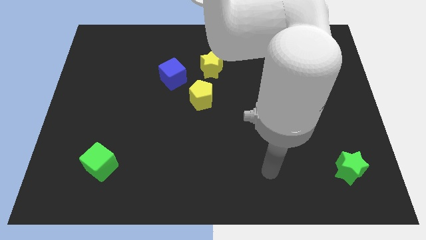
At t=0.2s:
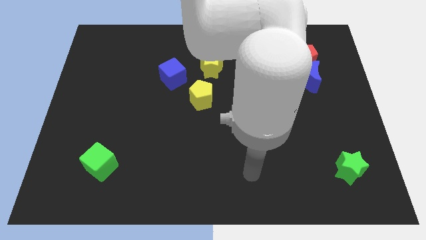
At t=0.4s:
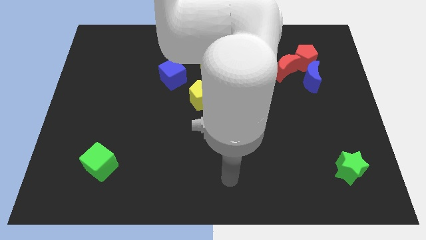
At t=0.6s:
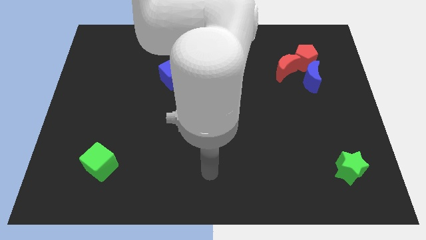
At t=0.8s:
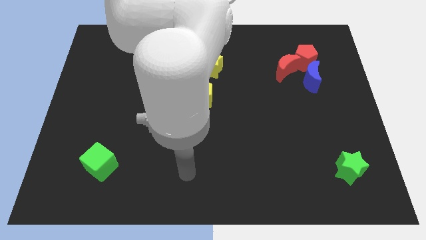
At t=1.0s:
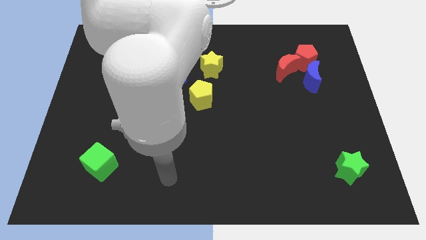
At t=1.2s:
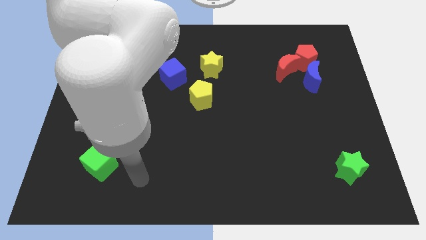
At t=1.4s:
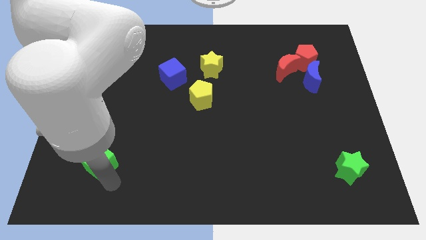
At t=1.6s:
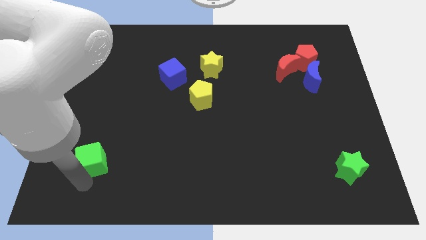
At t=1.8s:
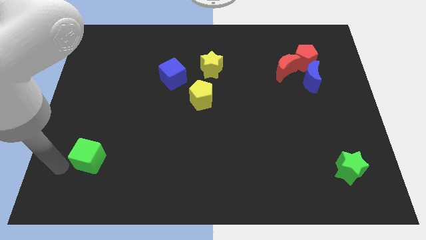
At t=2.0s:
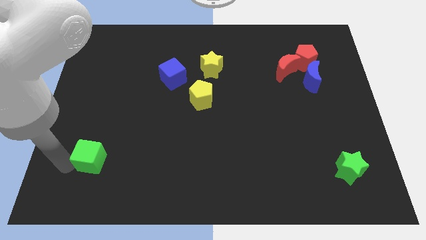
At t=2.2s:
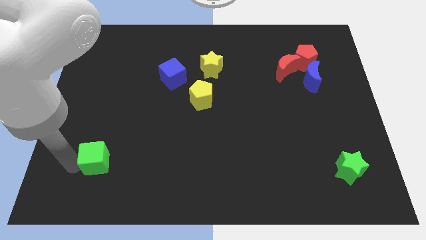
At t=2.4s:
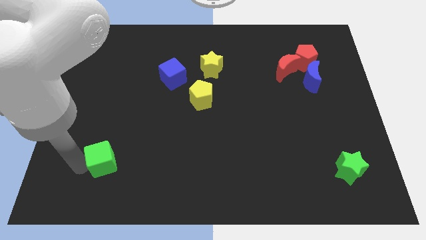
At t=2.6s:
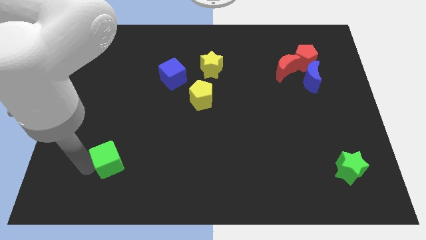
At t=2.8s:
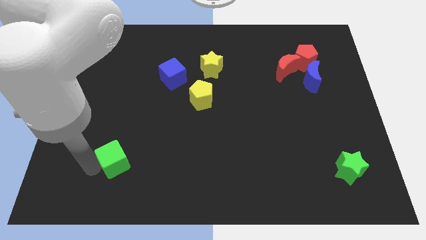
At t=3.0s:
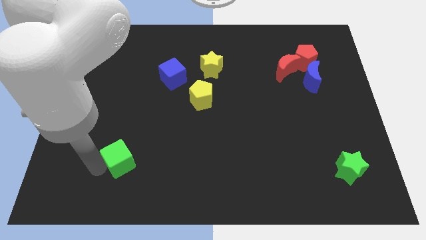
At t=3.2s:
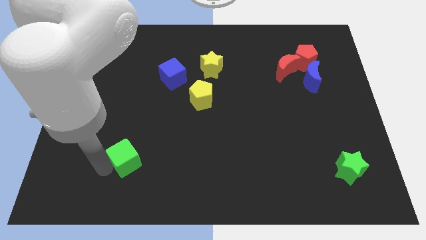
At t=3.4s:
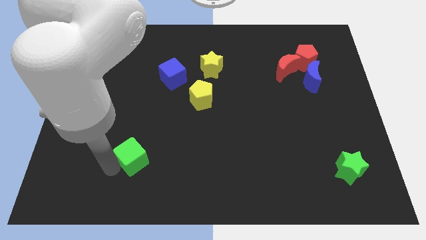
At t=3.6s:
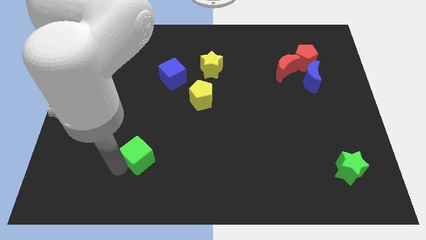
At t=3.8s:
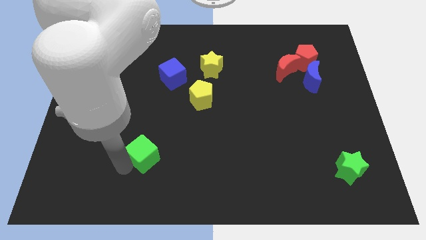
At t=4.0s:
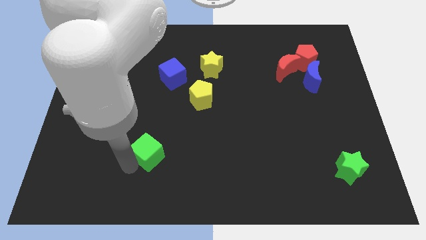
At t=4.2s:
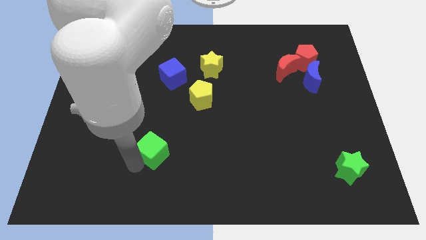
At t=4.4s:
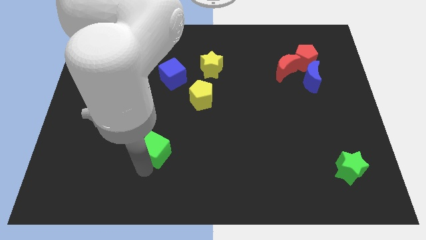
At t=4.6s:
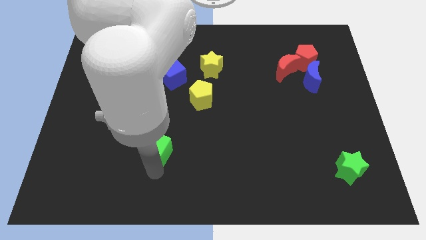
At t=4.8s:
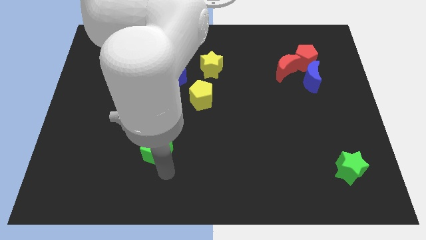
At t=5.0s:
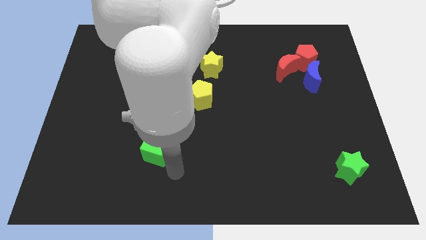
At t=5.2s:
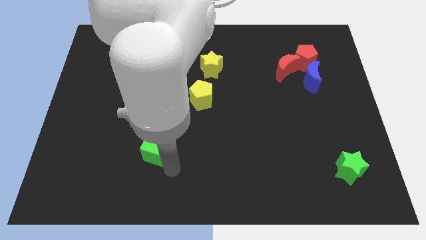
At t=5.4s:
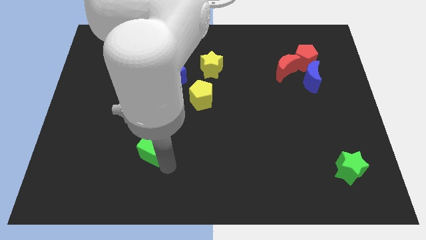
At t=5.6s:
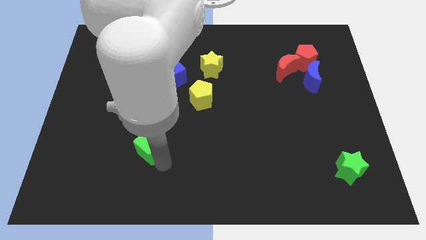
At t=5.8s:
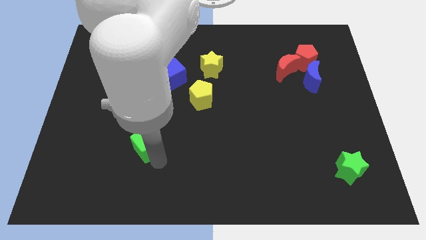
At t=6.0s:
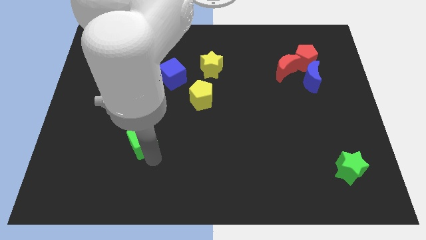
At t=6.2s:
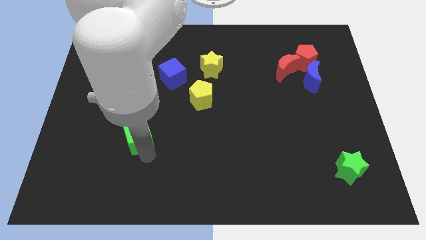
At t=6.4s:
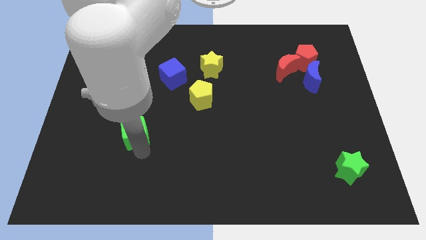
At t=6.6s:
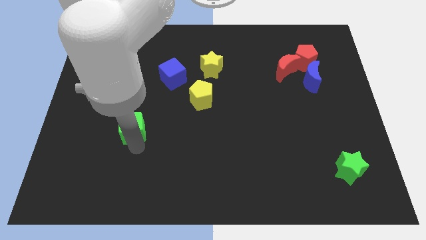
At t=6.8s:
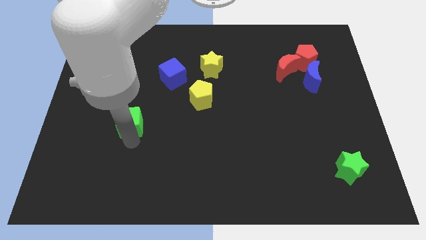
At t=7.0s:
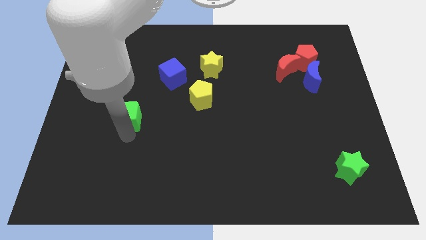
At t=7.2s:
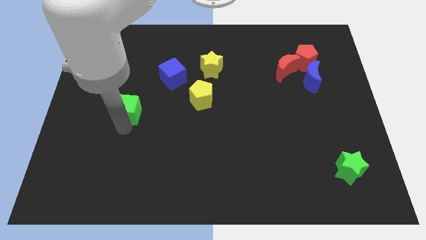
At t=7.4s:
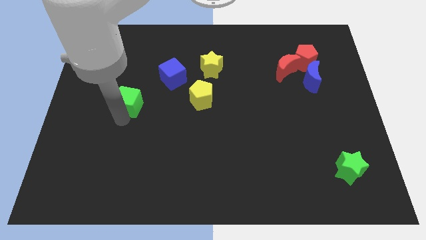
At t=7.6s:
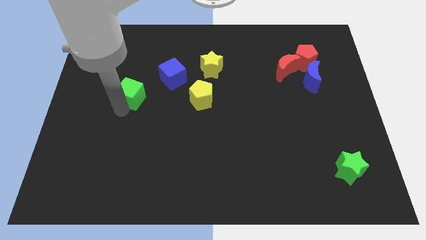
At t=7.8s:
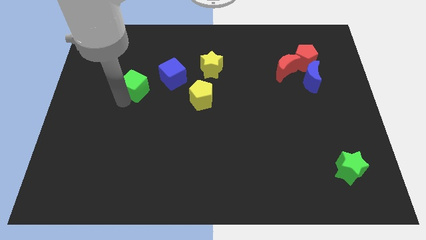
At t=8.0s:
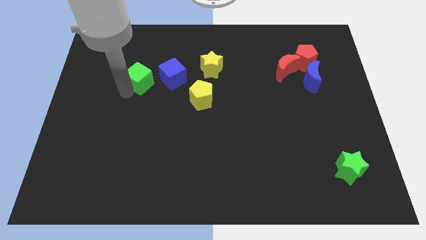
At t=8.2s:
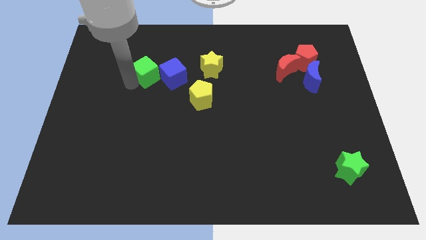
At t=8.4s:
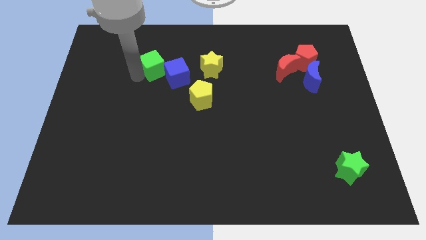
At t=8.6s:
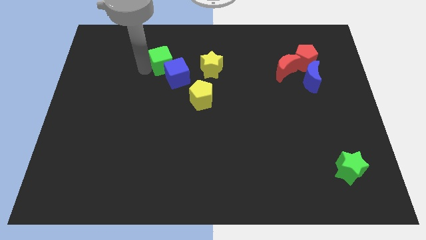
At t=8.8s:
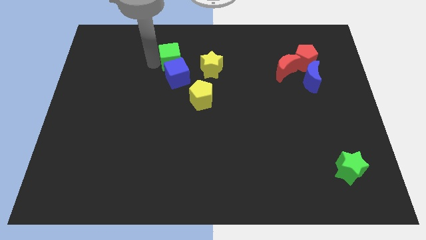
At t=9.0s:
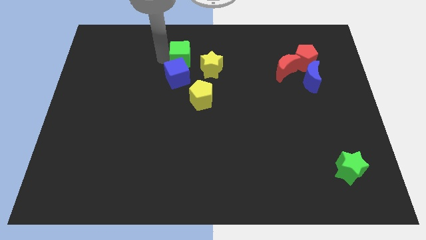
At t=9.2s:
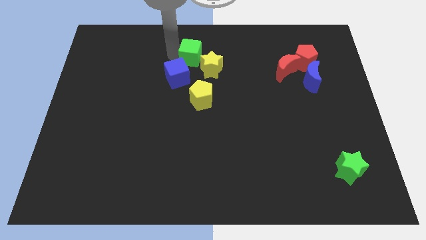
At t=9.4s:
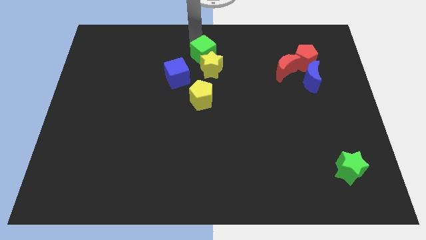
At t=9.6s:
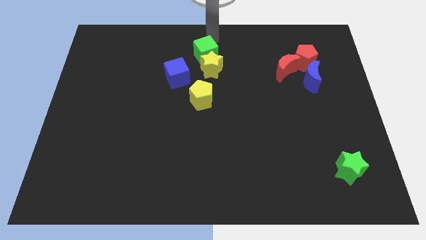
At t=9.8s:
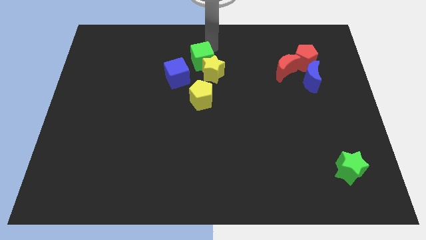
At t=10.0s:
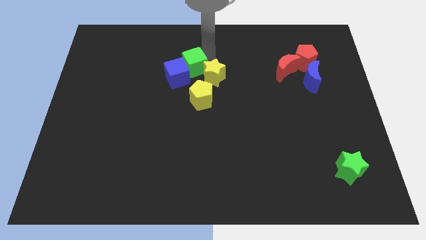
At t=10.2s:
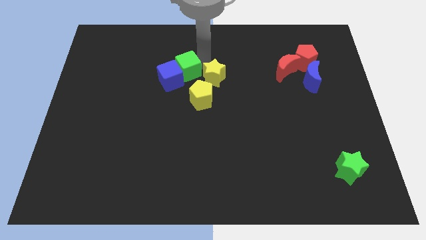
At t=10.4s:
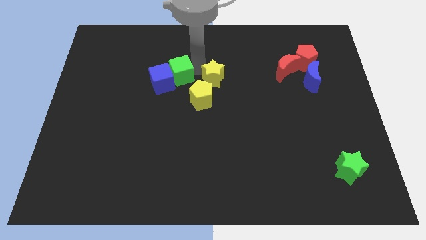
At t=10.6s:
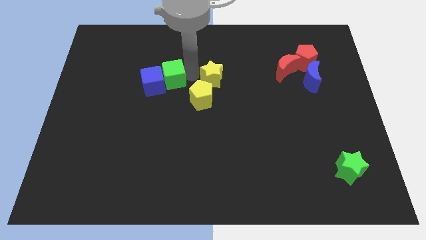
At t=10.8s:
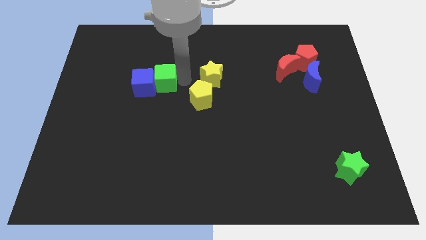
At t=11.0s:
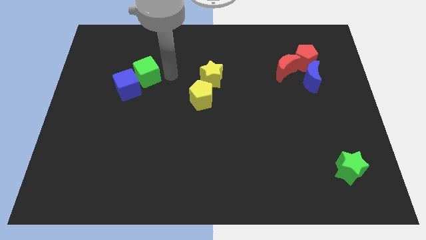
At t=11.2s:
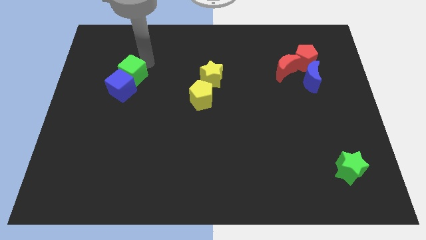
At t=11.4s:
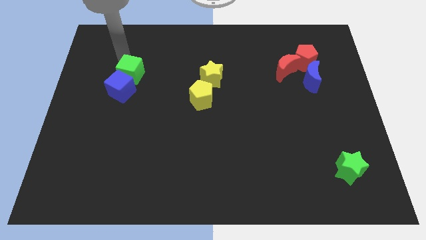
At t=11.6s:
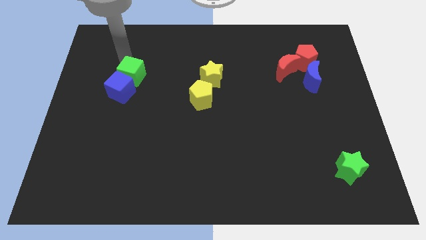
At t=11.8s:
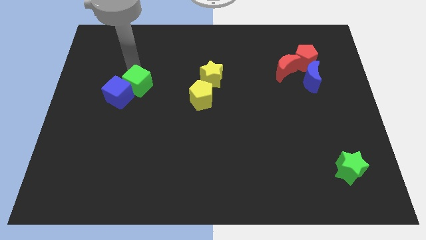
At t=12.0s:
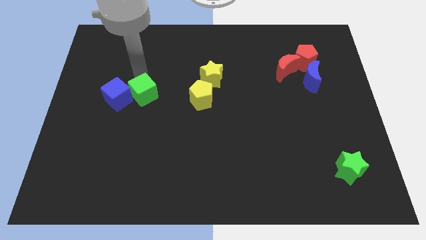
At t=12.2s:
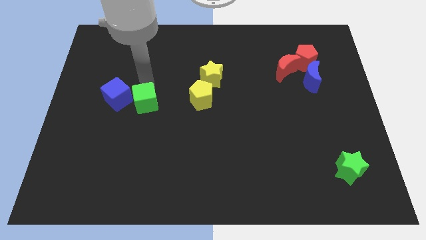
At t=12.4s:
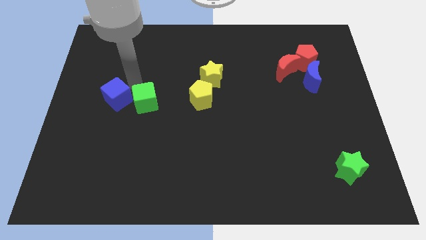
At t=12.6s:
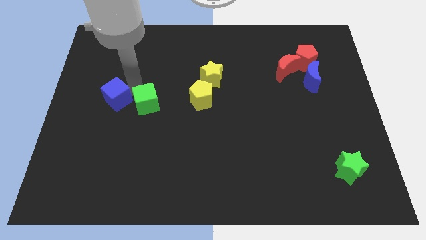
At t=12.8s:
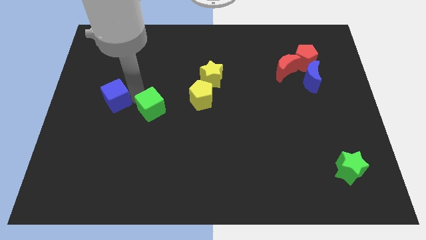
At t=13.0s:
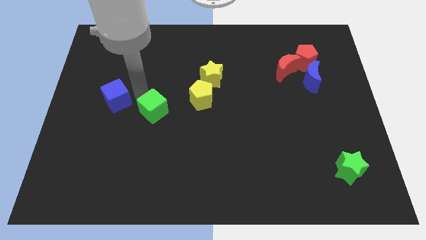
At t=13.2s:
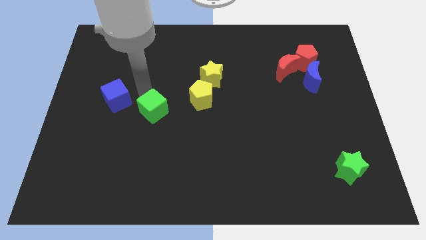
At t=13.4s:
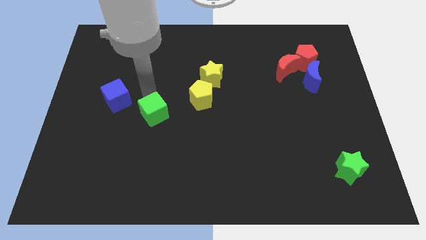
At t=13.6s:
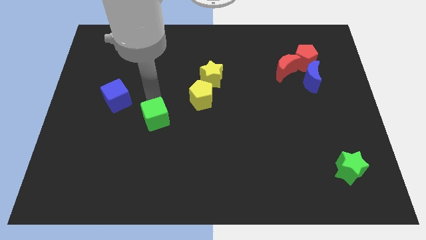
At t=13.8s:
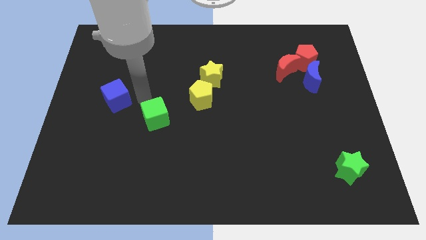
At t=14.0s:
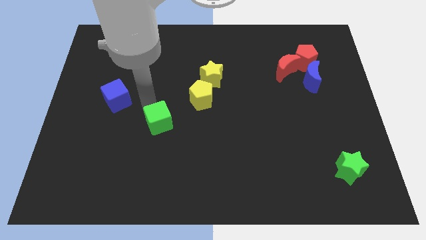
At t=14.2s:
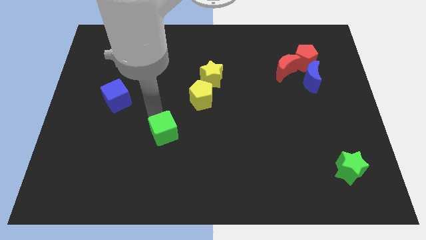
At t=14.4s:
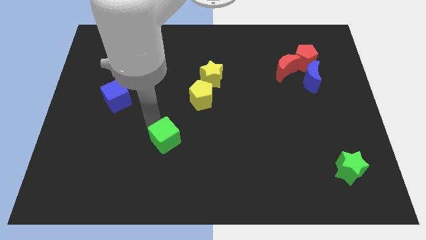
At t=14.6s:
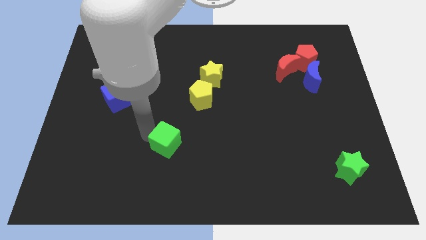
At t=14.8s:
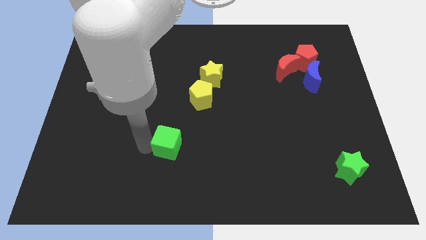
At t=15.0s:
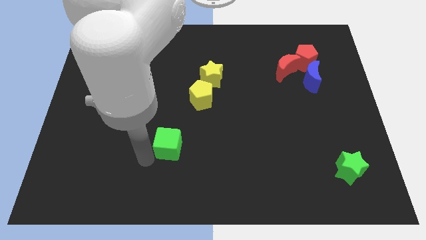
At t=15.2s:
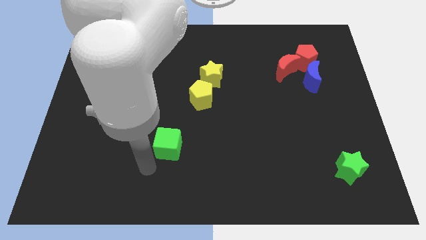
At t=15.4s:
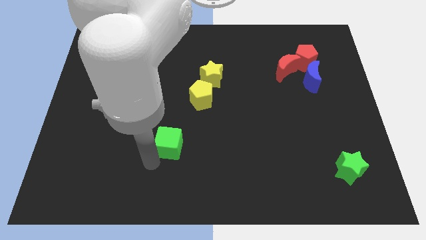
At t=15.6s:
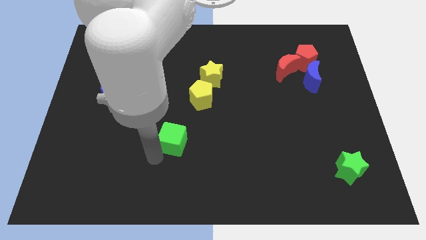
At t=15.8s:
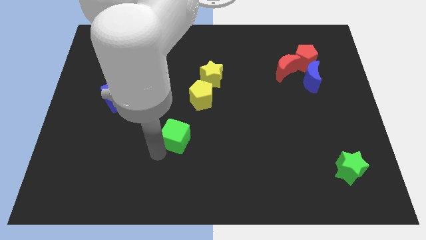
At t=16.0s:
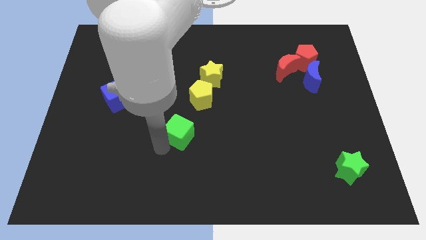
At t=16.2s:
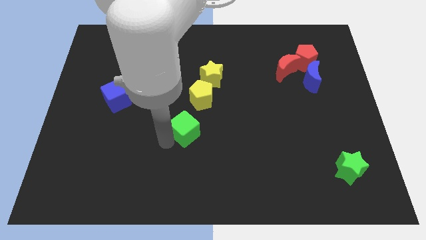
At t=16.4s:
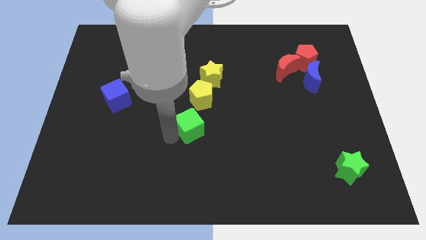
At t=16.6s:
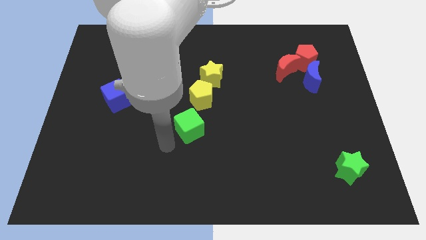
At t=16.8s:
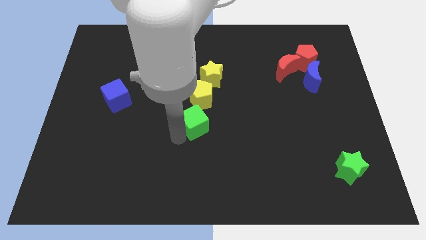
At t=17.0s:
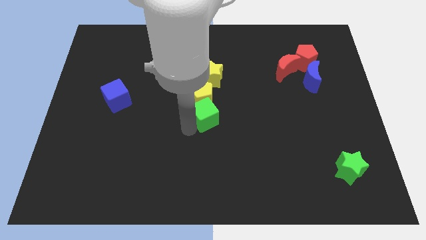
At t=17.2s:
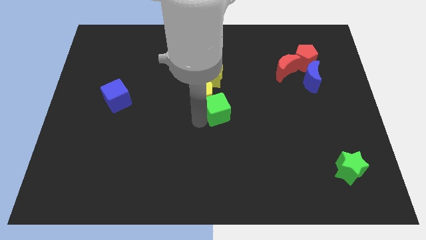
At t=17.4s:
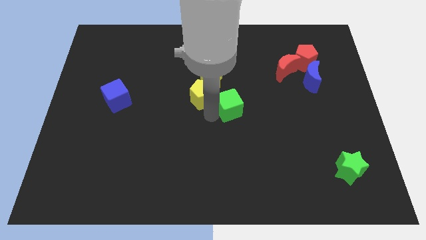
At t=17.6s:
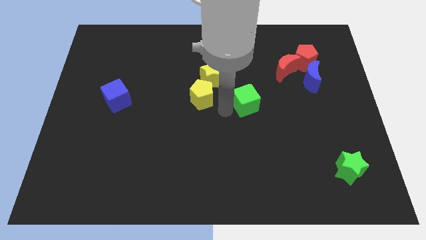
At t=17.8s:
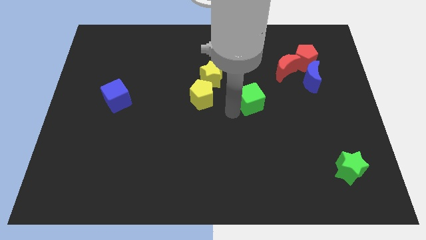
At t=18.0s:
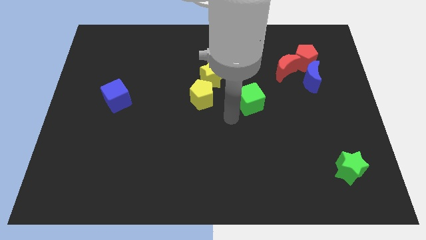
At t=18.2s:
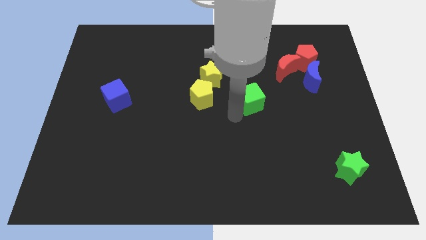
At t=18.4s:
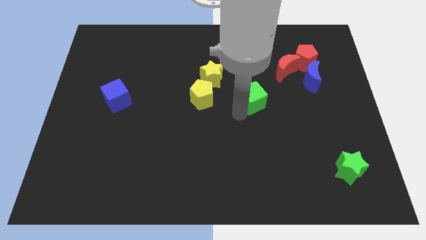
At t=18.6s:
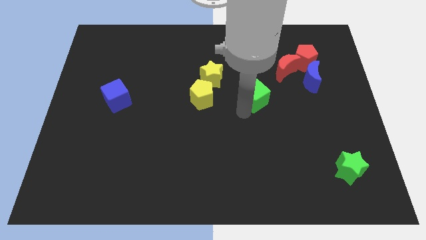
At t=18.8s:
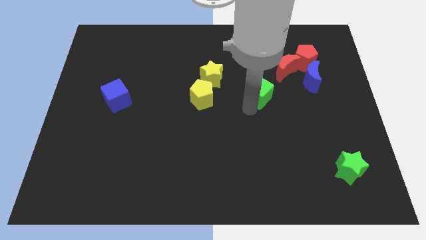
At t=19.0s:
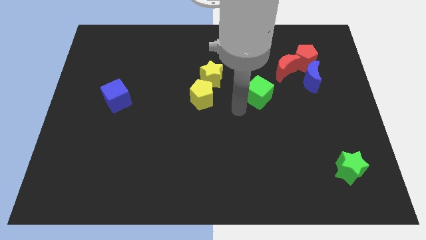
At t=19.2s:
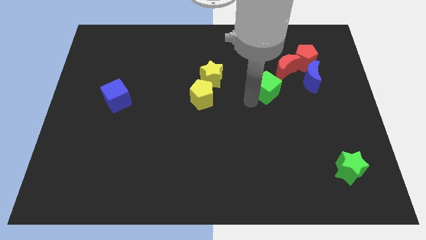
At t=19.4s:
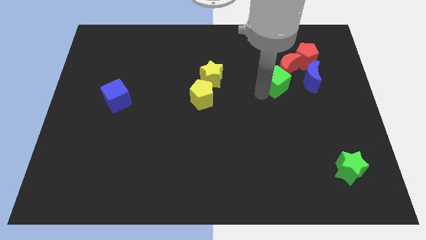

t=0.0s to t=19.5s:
move the green cube diagonally down and to the left of the red pentagon
